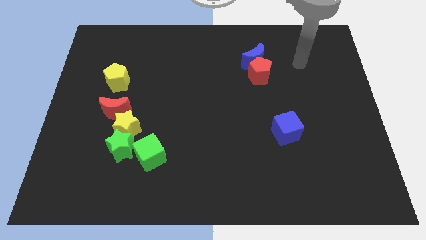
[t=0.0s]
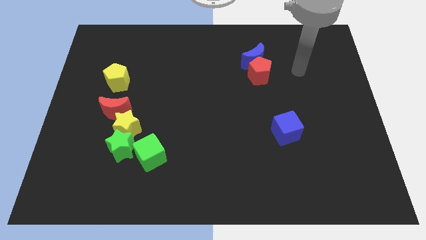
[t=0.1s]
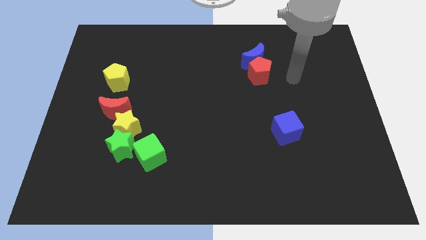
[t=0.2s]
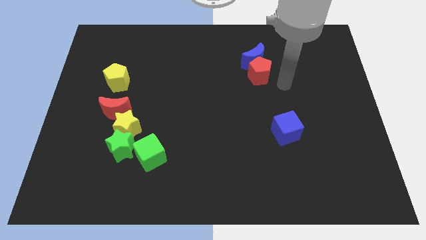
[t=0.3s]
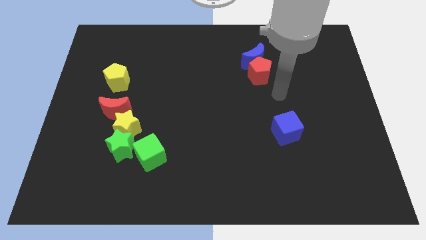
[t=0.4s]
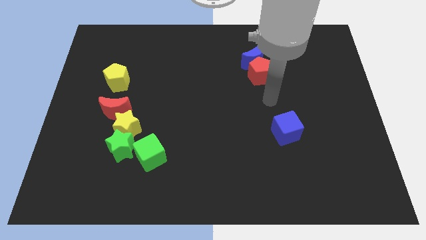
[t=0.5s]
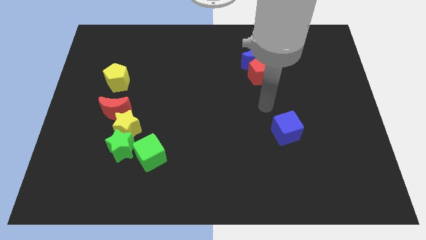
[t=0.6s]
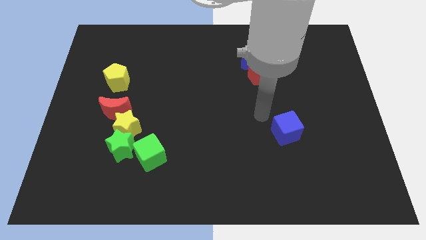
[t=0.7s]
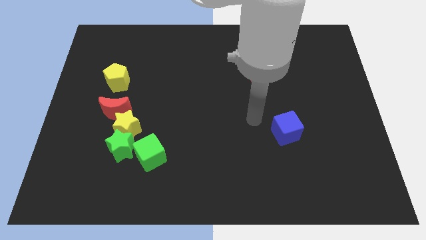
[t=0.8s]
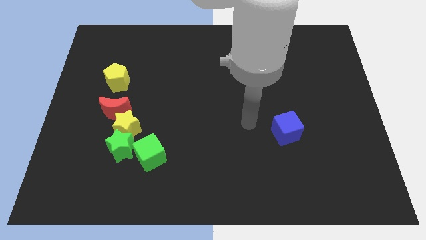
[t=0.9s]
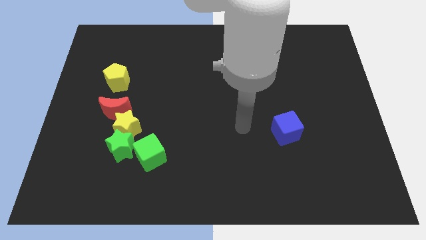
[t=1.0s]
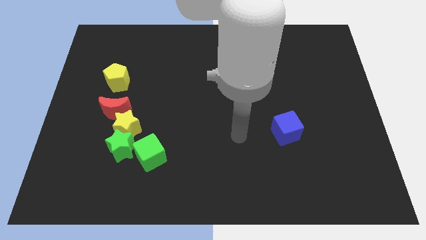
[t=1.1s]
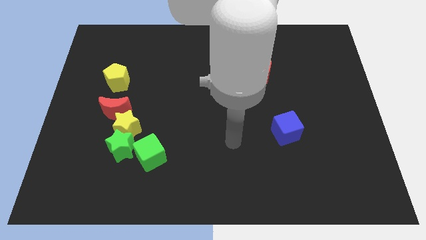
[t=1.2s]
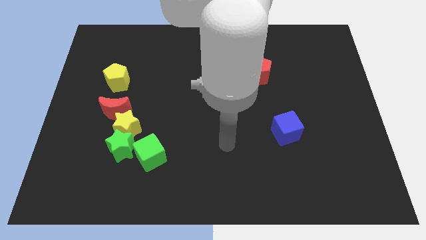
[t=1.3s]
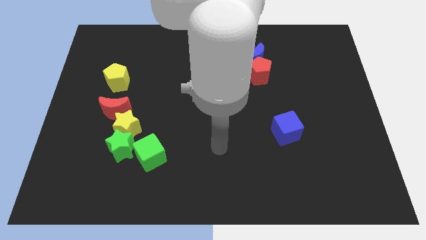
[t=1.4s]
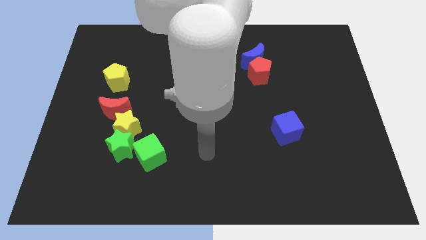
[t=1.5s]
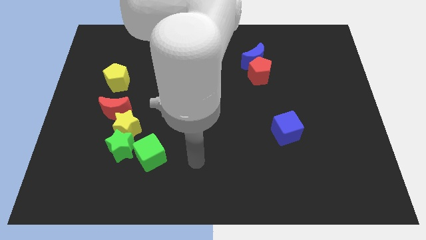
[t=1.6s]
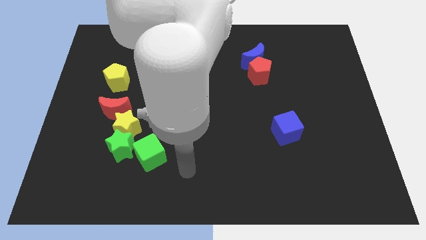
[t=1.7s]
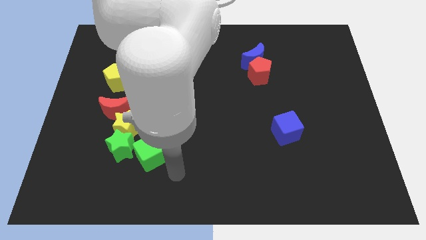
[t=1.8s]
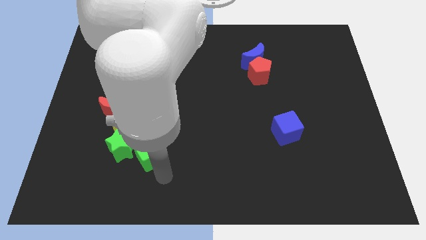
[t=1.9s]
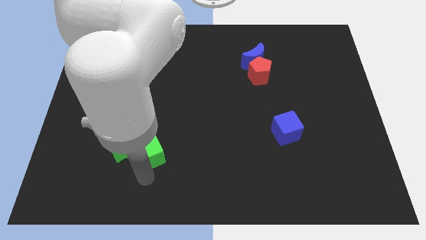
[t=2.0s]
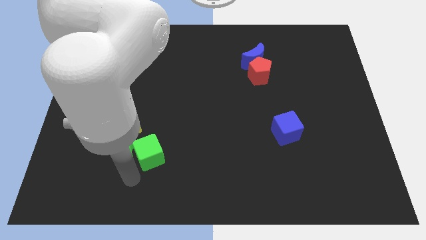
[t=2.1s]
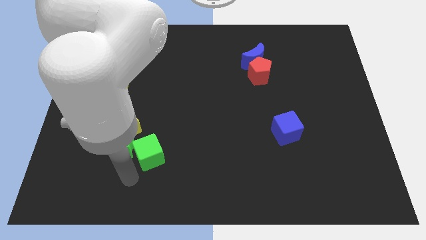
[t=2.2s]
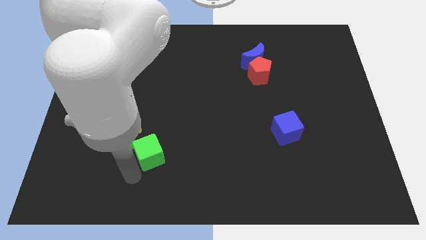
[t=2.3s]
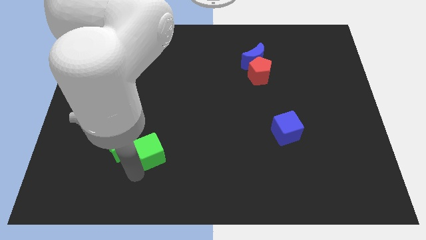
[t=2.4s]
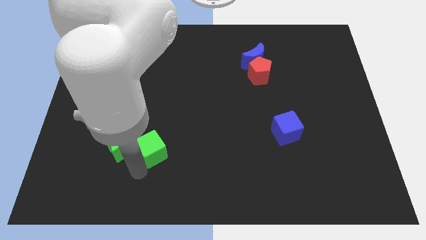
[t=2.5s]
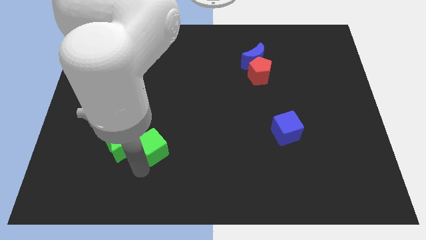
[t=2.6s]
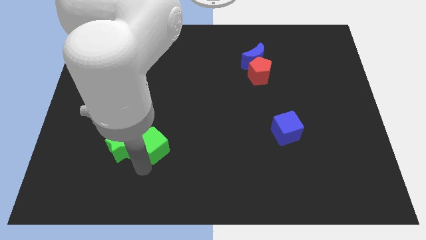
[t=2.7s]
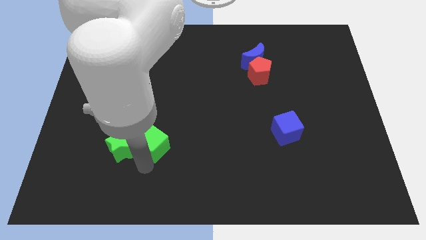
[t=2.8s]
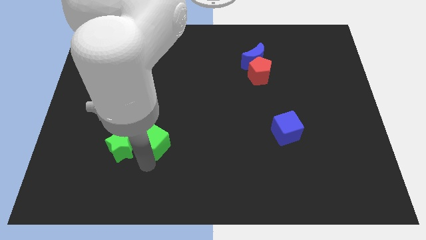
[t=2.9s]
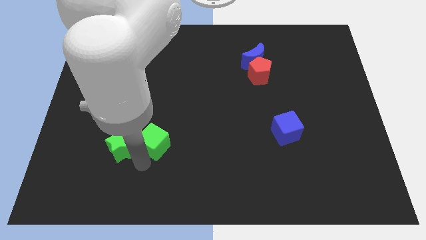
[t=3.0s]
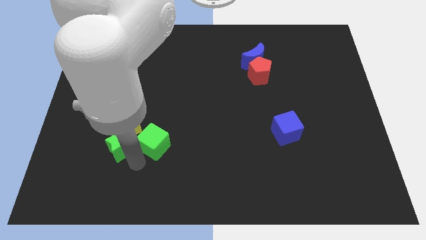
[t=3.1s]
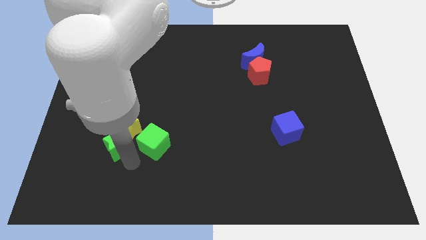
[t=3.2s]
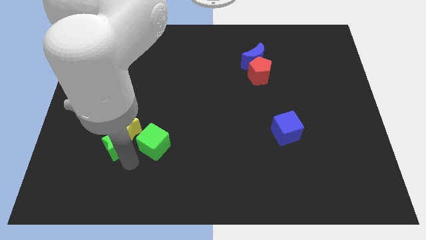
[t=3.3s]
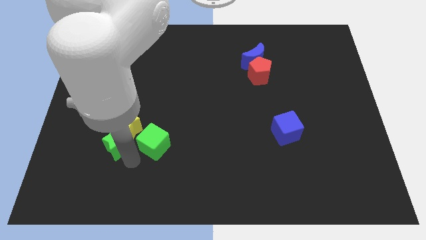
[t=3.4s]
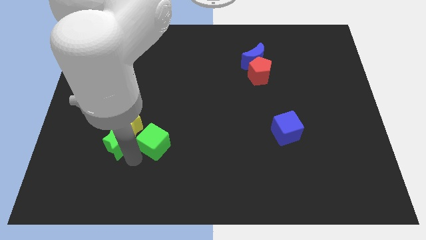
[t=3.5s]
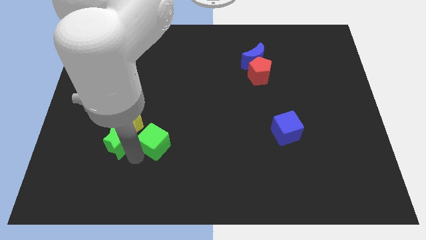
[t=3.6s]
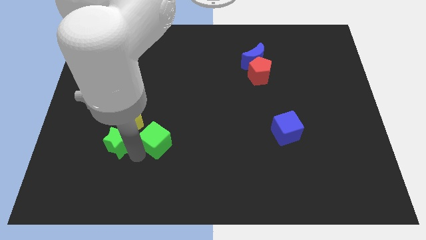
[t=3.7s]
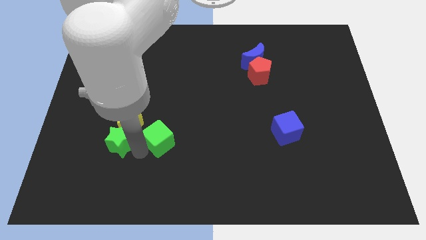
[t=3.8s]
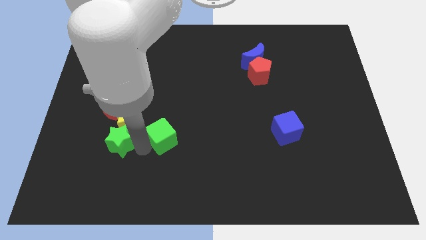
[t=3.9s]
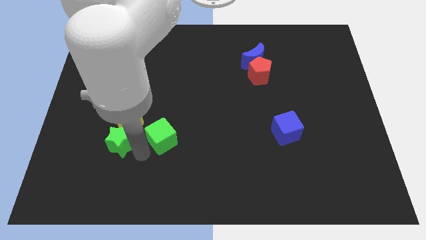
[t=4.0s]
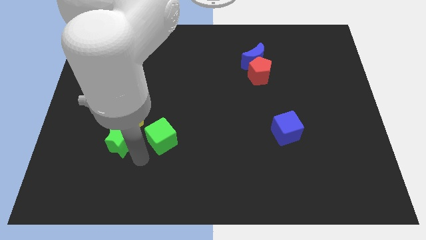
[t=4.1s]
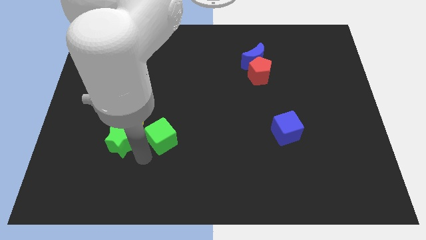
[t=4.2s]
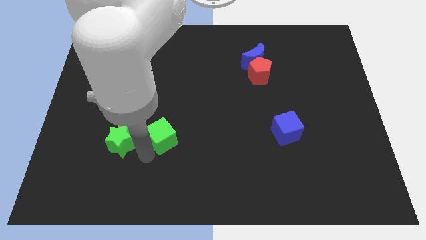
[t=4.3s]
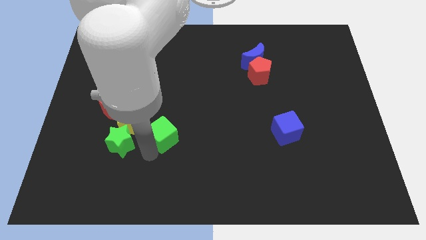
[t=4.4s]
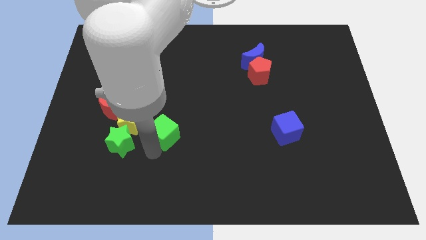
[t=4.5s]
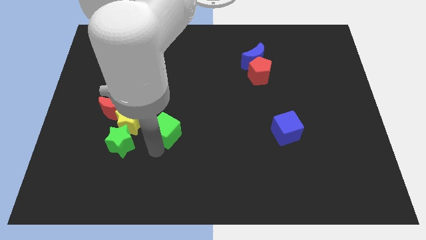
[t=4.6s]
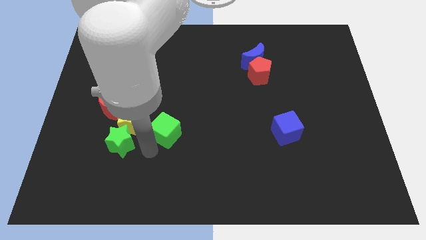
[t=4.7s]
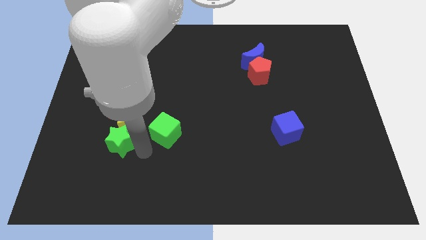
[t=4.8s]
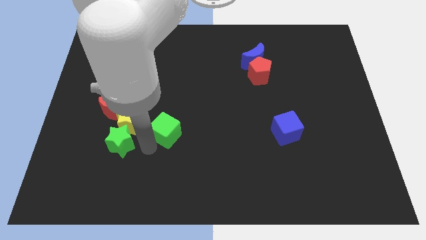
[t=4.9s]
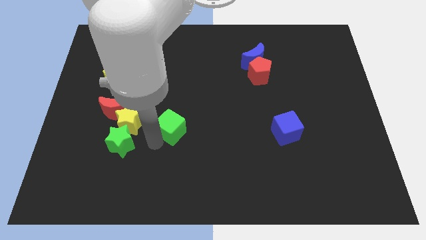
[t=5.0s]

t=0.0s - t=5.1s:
slide the green cube somewhat diagonally upwards and to the right

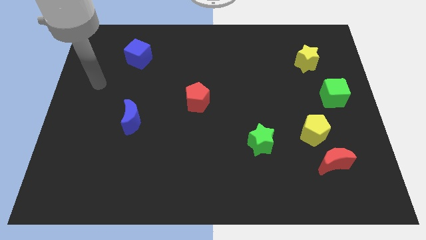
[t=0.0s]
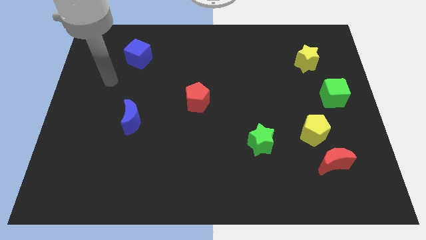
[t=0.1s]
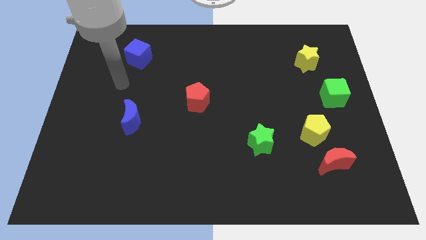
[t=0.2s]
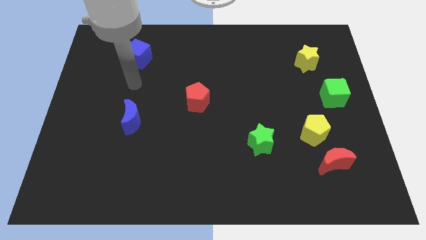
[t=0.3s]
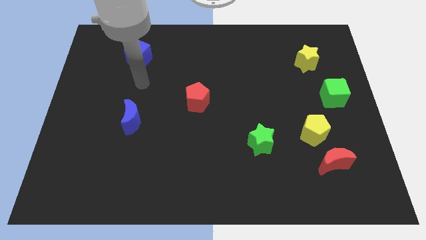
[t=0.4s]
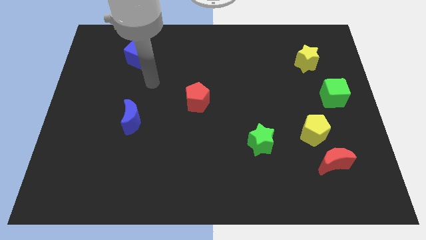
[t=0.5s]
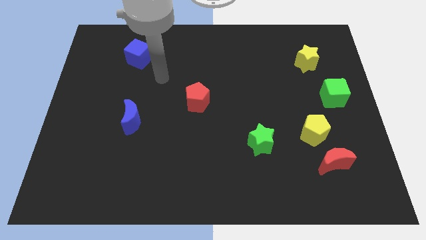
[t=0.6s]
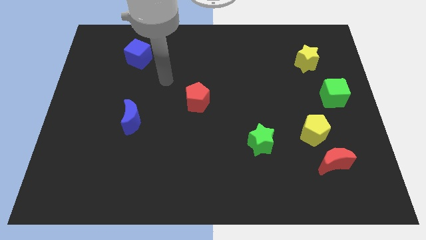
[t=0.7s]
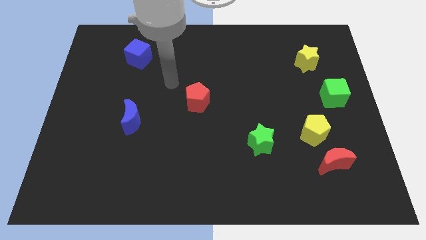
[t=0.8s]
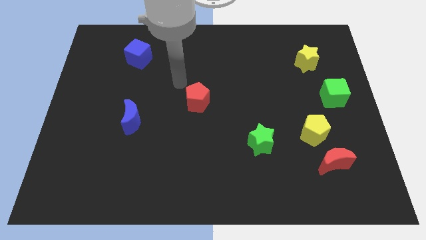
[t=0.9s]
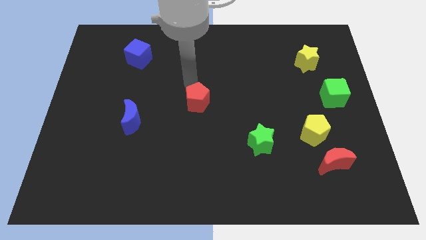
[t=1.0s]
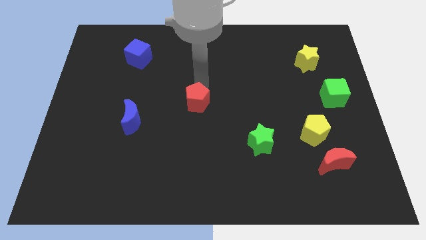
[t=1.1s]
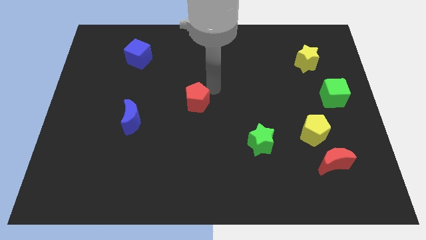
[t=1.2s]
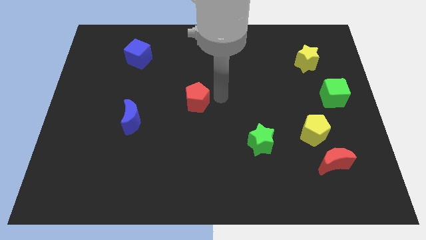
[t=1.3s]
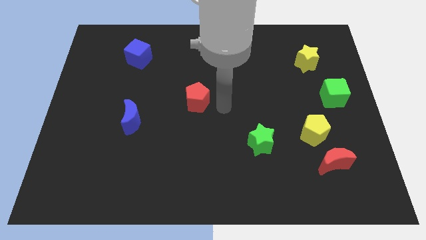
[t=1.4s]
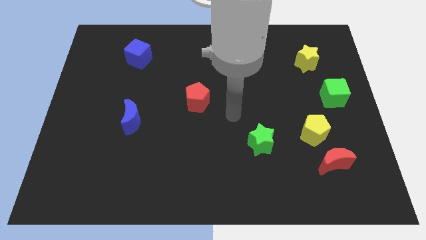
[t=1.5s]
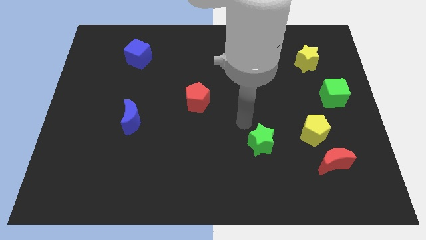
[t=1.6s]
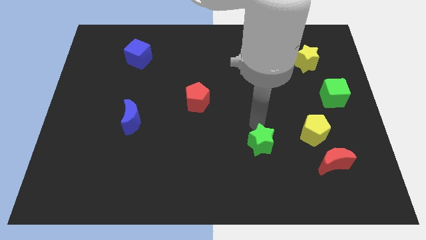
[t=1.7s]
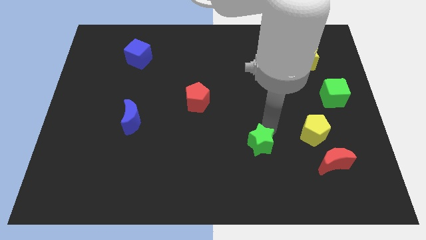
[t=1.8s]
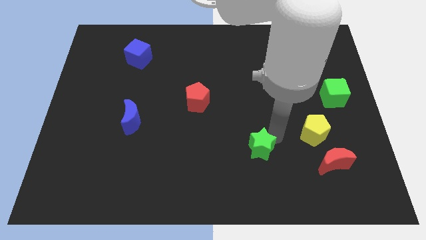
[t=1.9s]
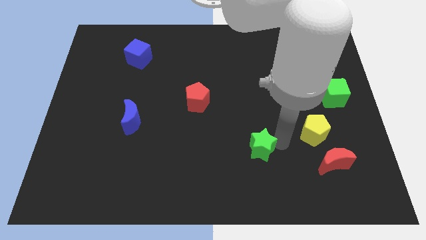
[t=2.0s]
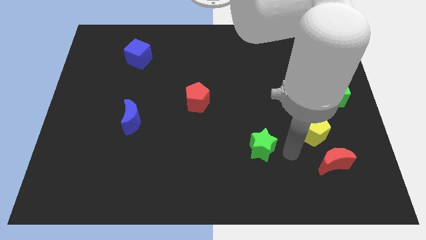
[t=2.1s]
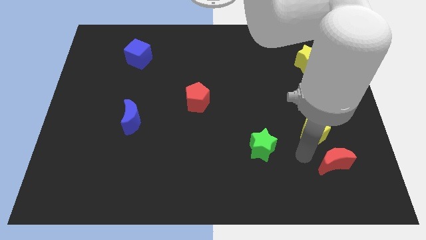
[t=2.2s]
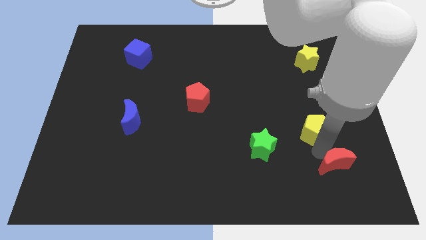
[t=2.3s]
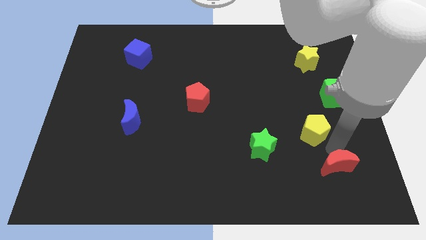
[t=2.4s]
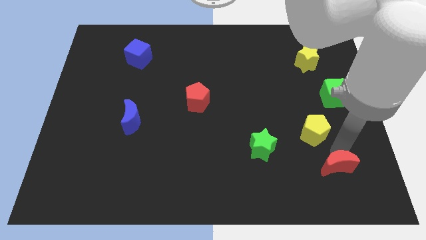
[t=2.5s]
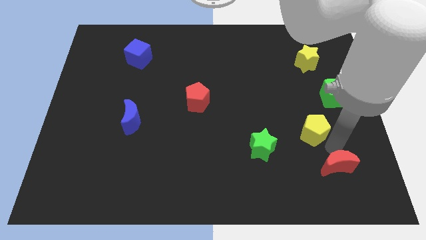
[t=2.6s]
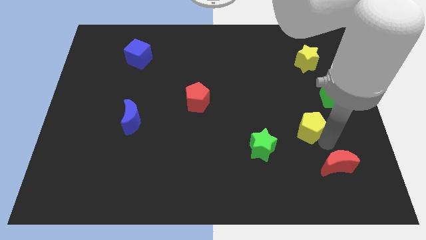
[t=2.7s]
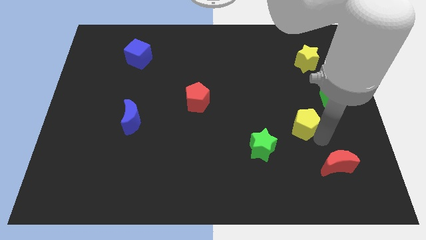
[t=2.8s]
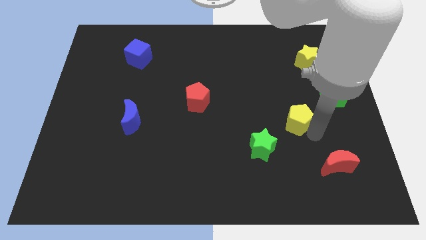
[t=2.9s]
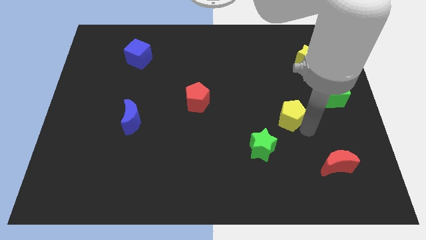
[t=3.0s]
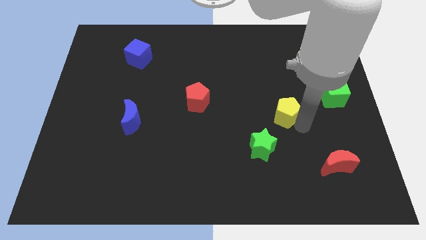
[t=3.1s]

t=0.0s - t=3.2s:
move the yellow pentagon a little bit upwards and left diagonally
